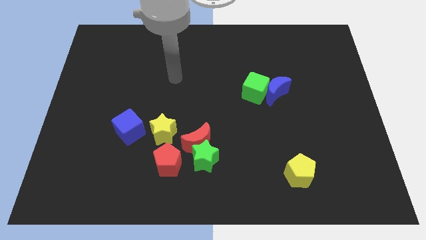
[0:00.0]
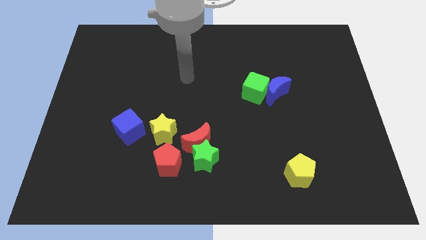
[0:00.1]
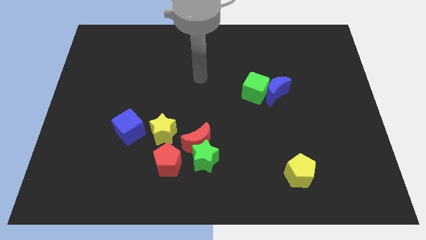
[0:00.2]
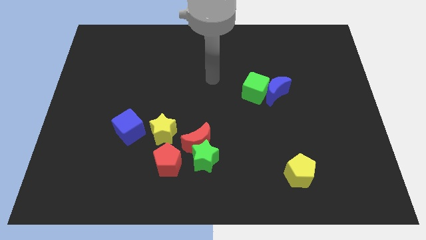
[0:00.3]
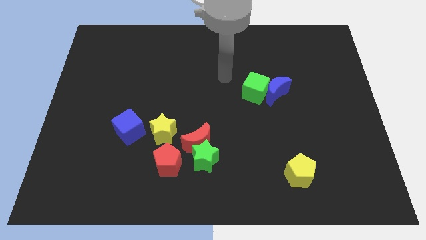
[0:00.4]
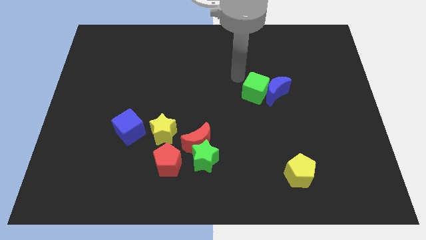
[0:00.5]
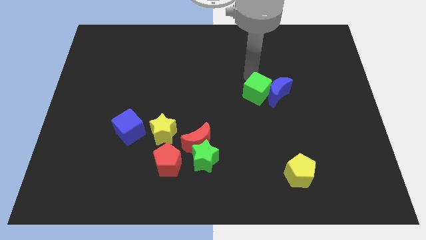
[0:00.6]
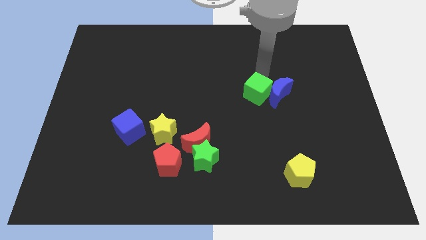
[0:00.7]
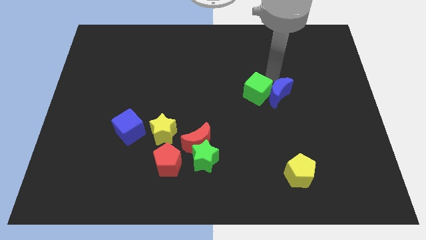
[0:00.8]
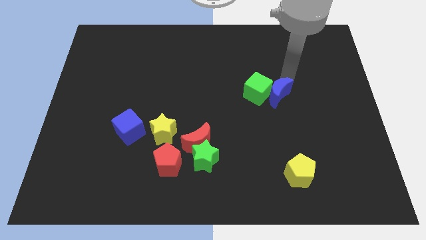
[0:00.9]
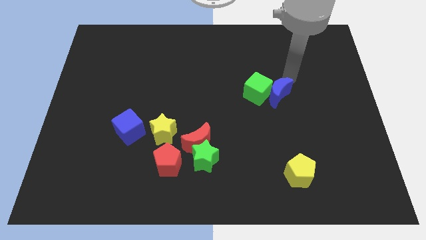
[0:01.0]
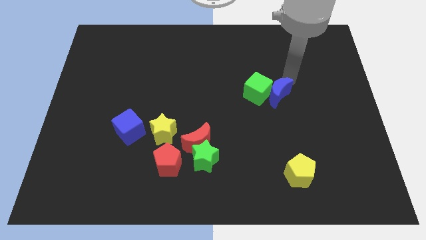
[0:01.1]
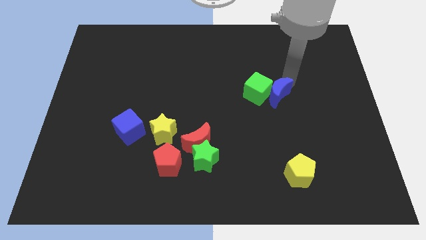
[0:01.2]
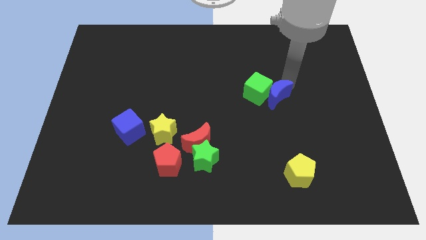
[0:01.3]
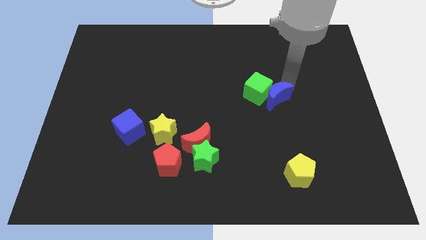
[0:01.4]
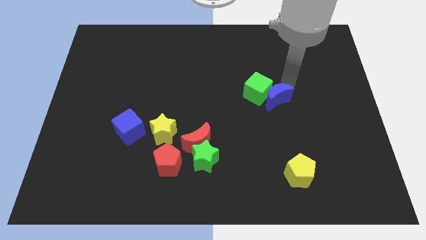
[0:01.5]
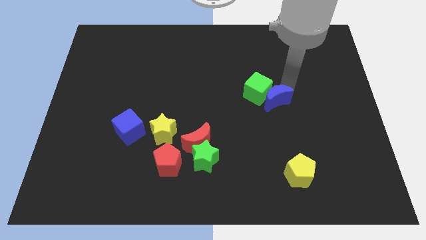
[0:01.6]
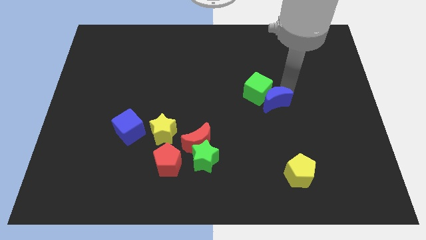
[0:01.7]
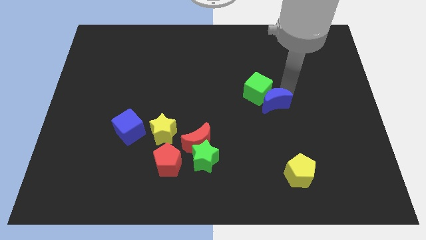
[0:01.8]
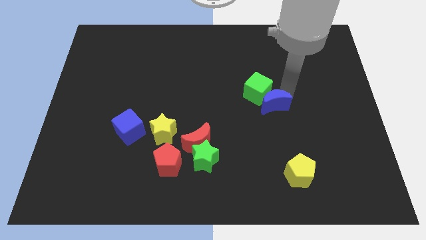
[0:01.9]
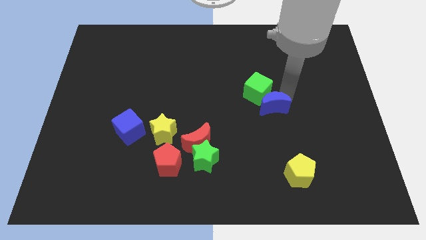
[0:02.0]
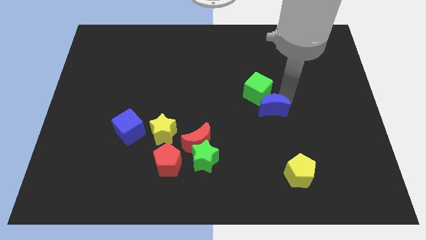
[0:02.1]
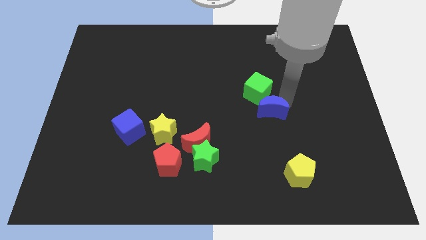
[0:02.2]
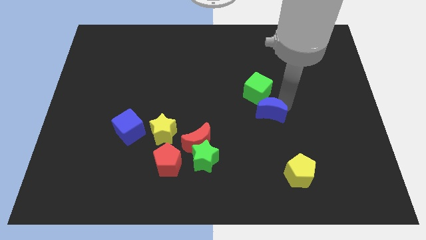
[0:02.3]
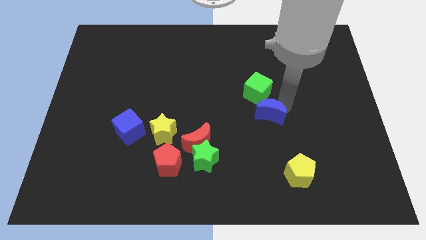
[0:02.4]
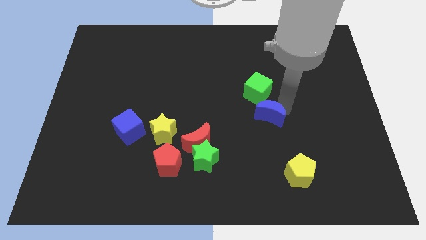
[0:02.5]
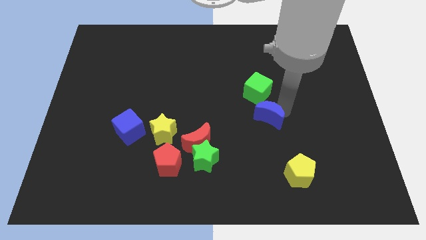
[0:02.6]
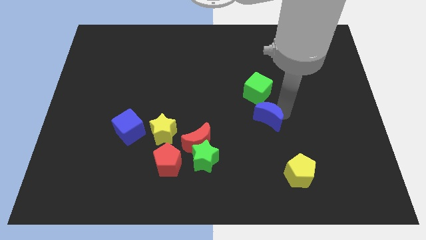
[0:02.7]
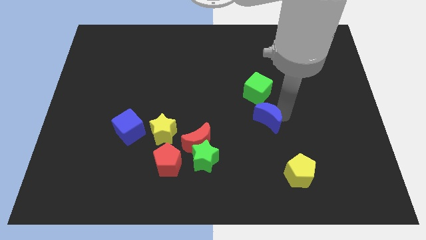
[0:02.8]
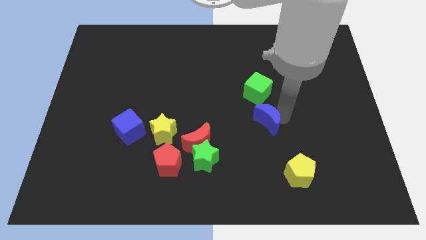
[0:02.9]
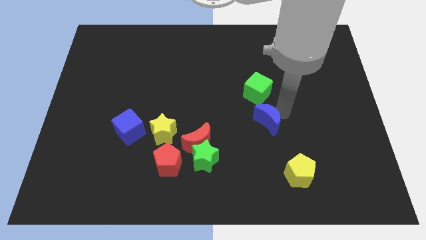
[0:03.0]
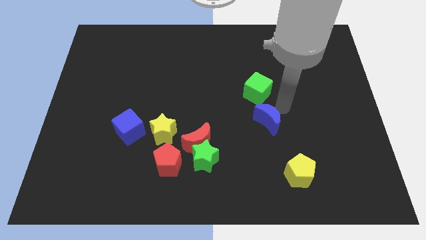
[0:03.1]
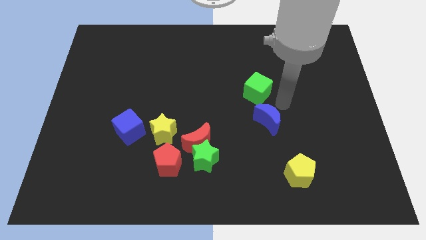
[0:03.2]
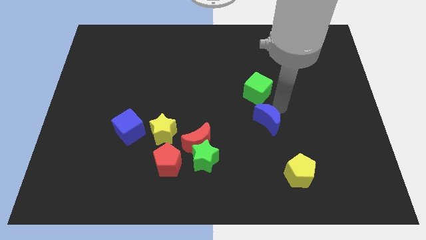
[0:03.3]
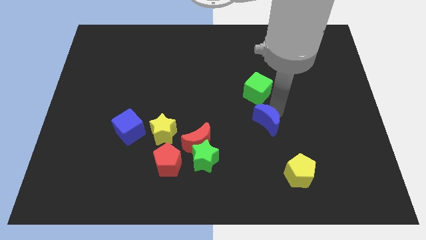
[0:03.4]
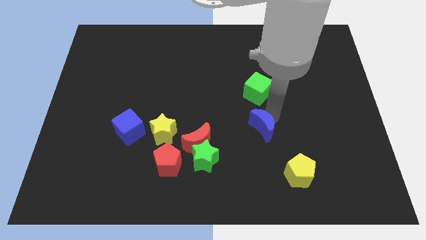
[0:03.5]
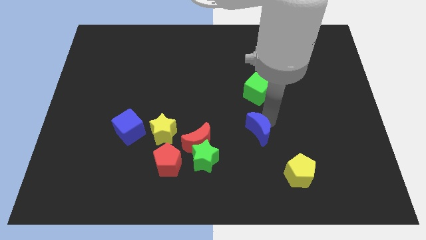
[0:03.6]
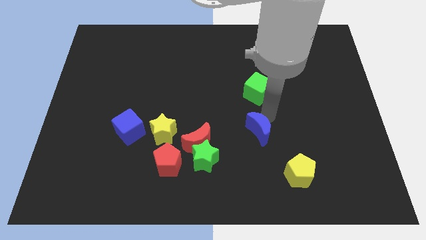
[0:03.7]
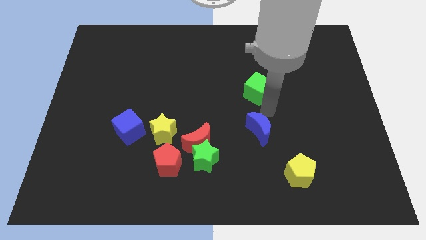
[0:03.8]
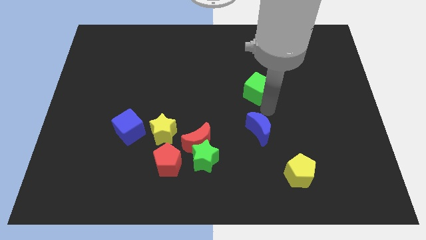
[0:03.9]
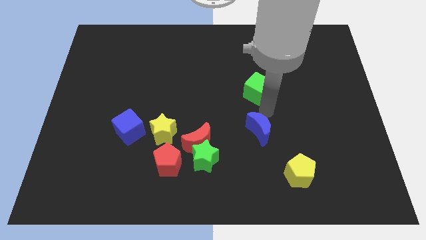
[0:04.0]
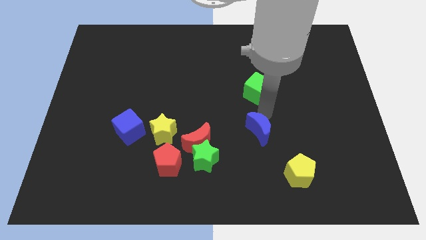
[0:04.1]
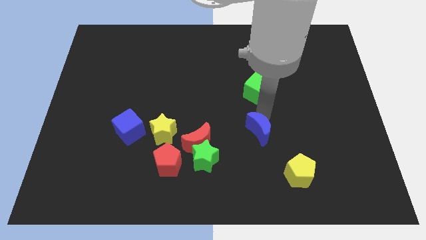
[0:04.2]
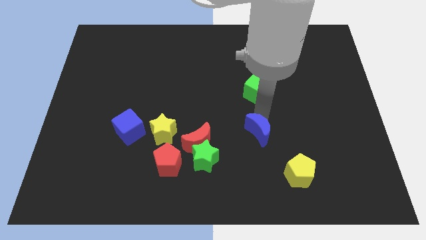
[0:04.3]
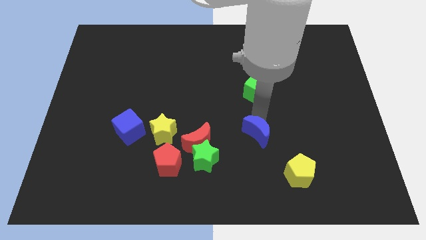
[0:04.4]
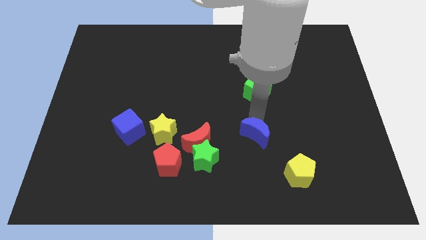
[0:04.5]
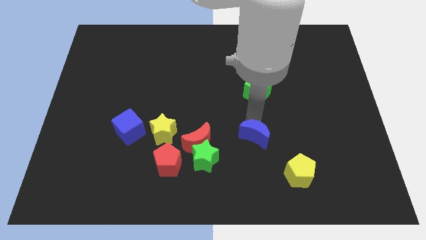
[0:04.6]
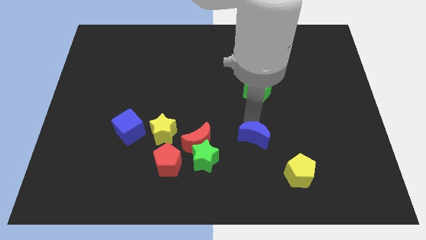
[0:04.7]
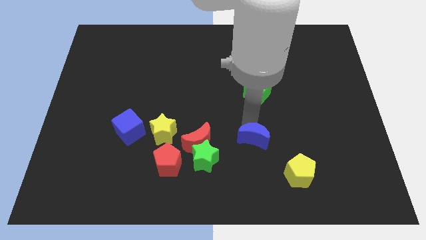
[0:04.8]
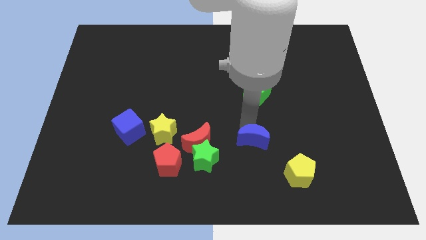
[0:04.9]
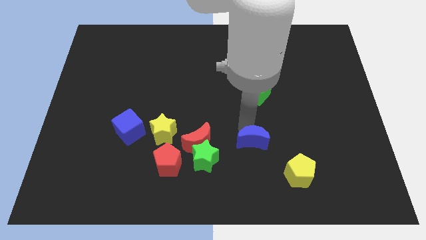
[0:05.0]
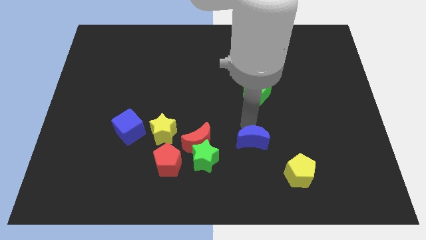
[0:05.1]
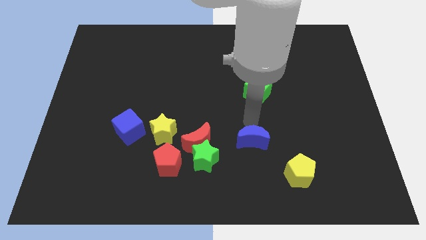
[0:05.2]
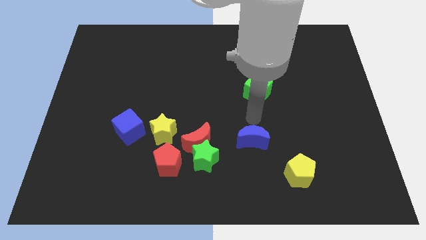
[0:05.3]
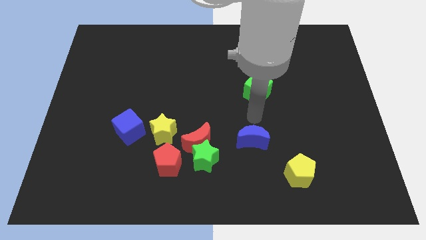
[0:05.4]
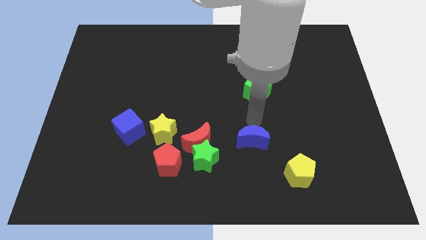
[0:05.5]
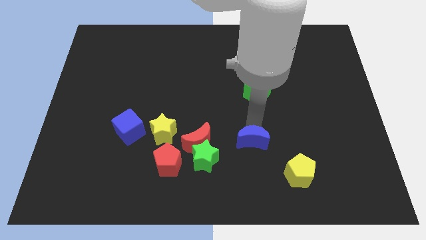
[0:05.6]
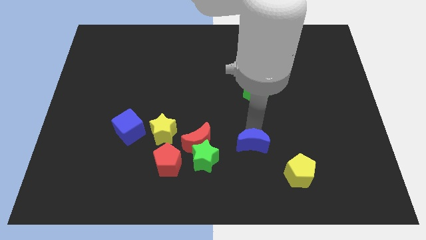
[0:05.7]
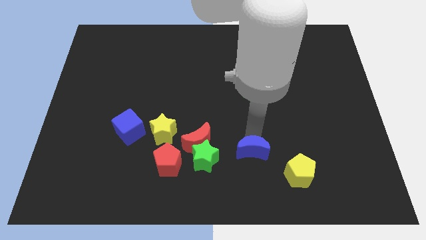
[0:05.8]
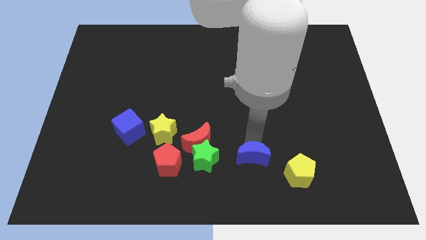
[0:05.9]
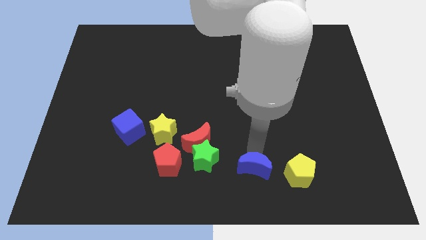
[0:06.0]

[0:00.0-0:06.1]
put the blue moon to the bottom

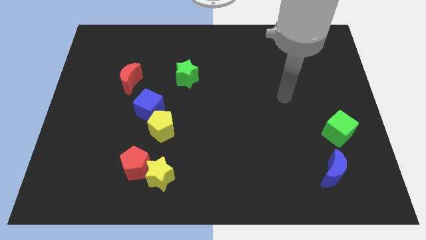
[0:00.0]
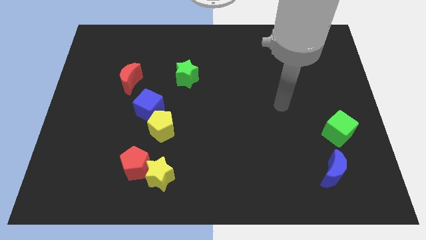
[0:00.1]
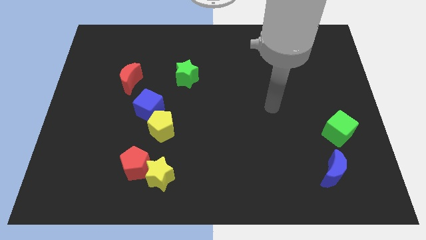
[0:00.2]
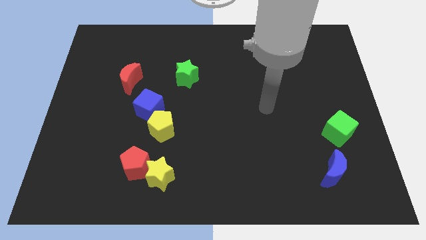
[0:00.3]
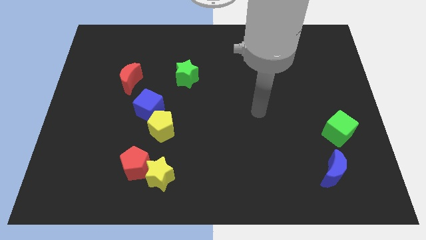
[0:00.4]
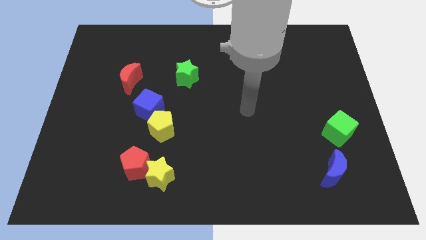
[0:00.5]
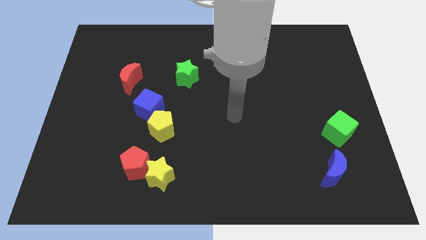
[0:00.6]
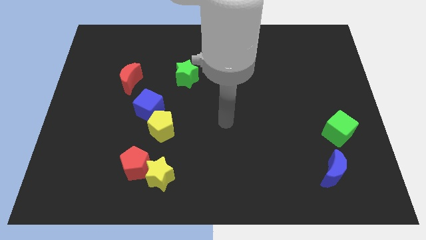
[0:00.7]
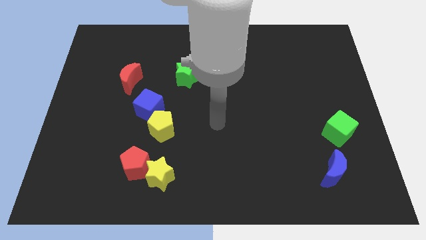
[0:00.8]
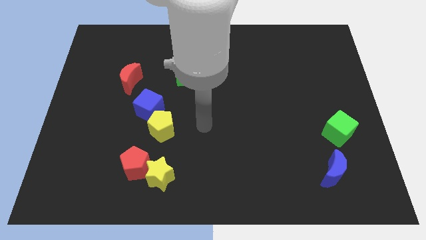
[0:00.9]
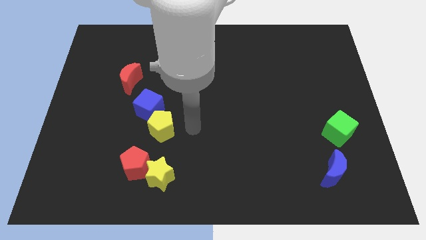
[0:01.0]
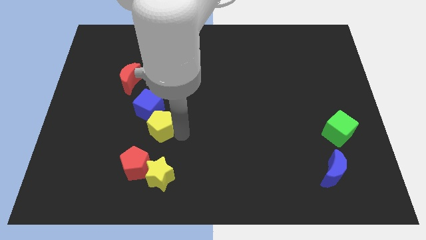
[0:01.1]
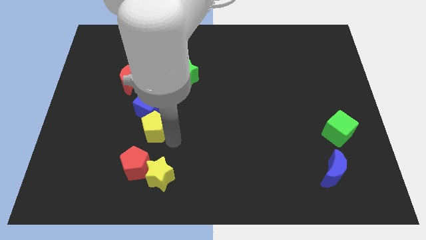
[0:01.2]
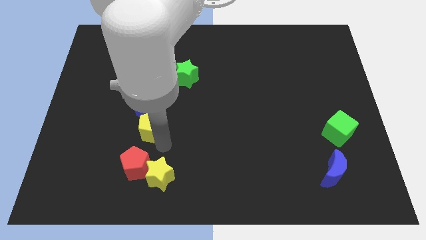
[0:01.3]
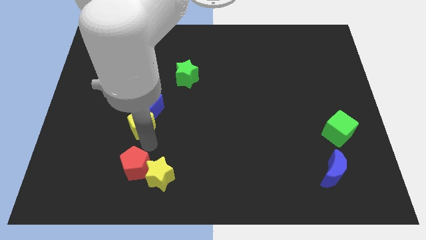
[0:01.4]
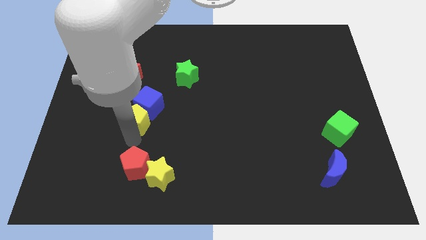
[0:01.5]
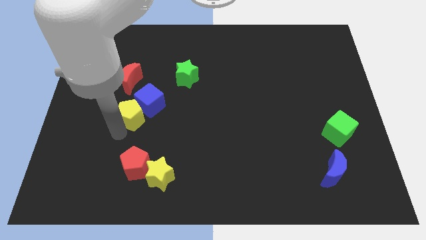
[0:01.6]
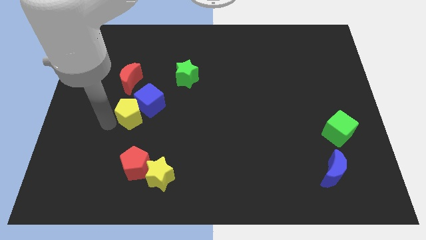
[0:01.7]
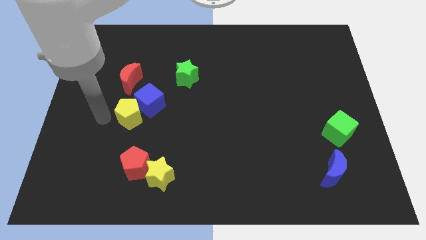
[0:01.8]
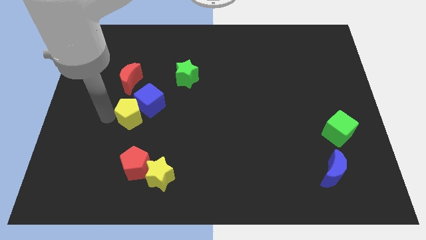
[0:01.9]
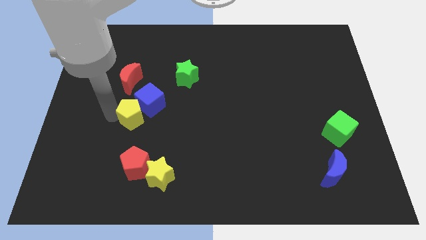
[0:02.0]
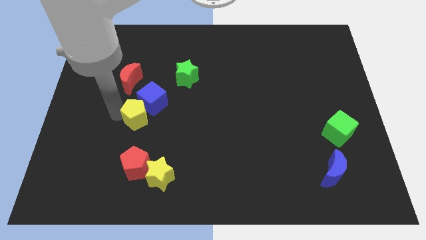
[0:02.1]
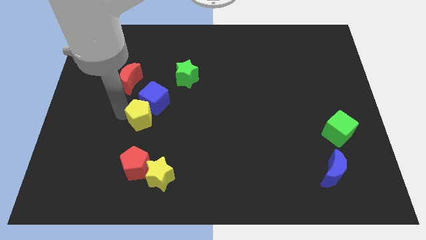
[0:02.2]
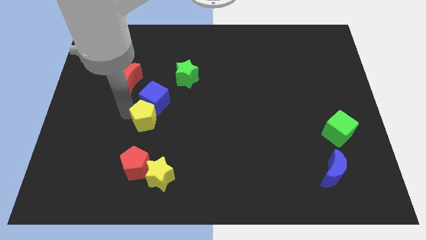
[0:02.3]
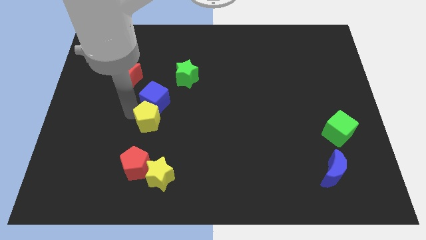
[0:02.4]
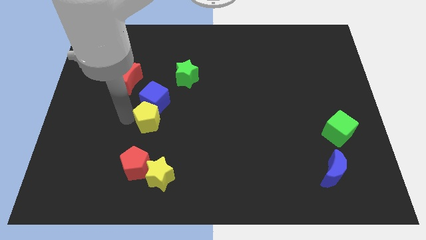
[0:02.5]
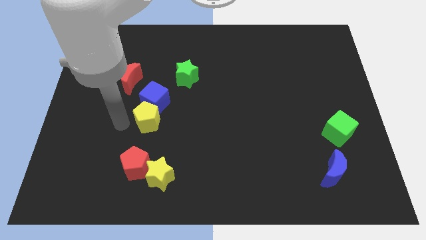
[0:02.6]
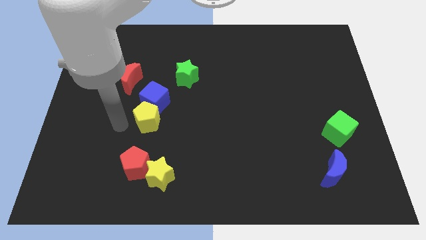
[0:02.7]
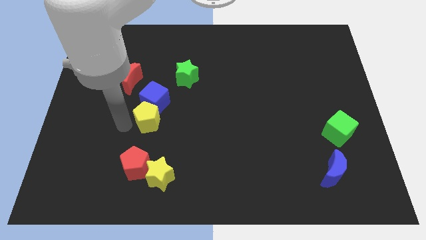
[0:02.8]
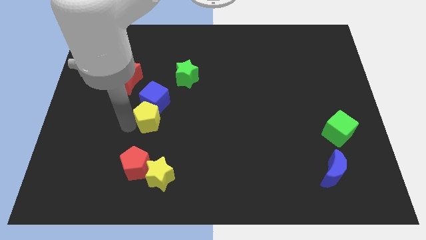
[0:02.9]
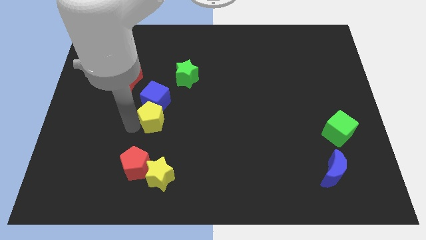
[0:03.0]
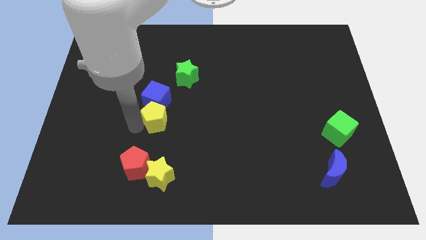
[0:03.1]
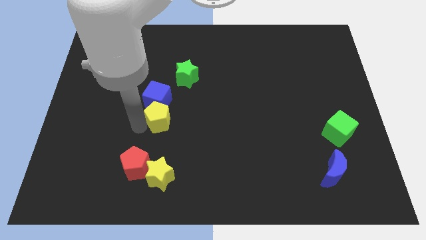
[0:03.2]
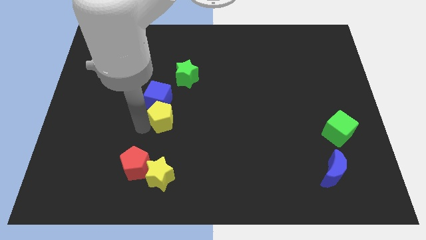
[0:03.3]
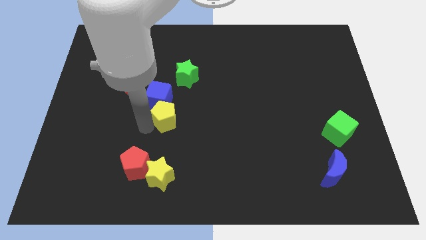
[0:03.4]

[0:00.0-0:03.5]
move the yellow pentagon to the center
